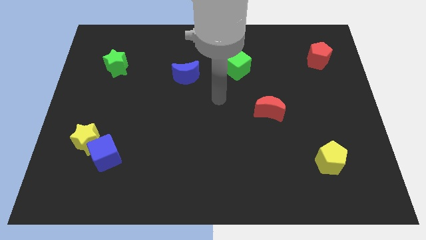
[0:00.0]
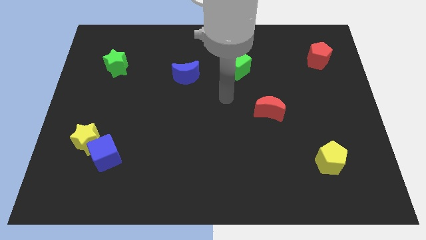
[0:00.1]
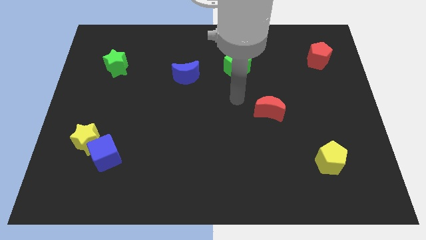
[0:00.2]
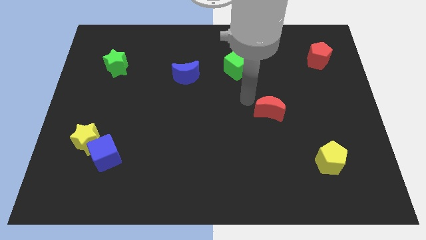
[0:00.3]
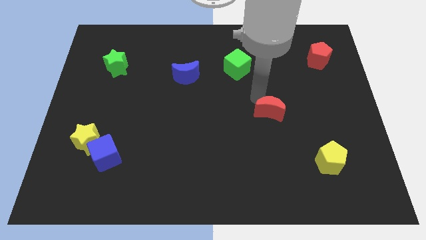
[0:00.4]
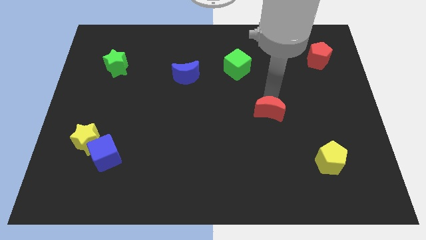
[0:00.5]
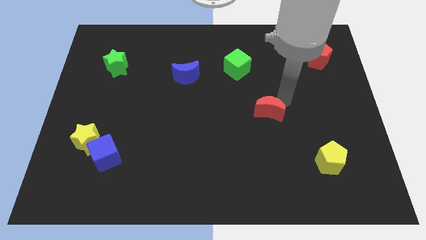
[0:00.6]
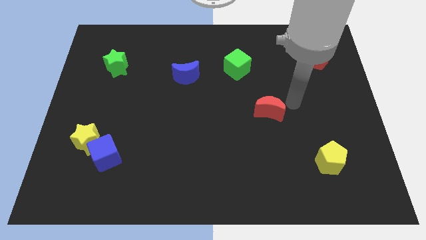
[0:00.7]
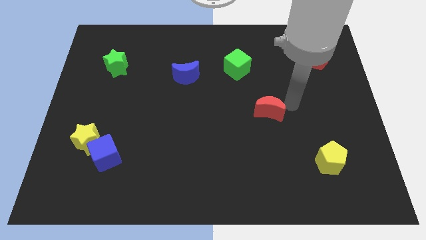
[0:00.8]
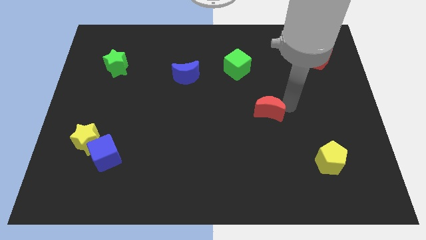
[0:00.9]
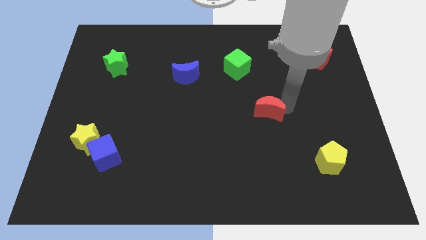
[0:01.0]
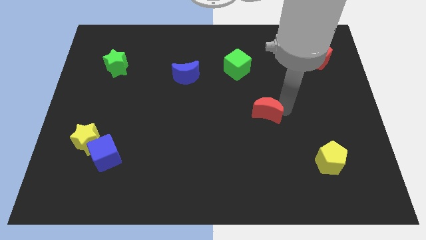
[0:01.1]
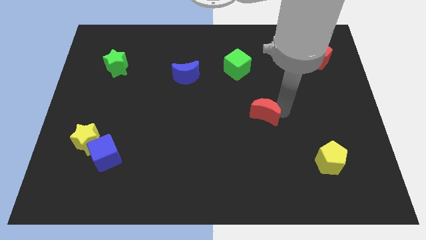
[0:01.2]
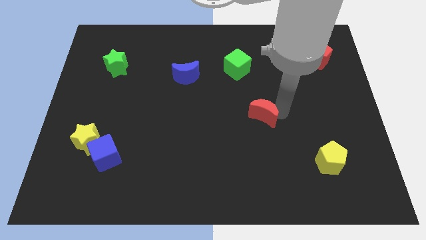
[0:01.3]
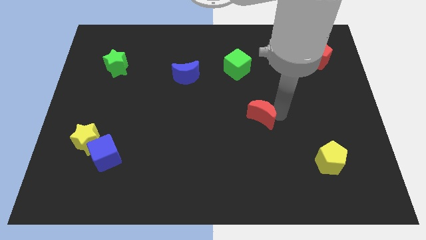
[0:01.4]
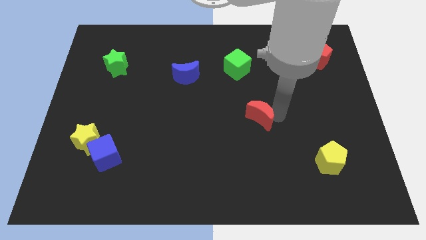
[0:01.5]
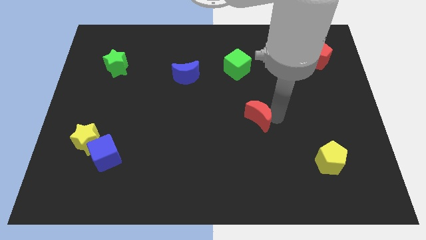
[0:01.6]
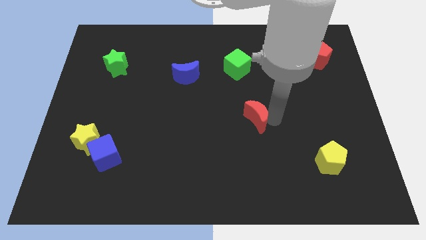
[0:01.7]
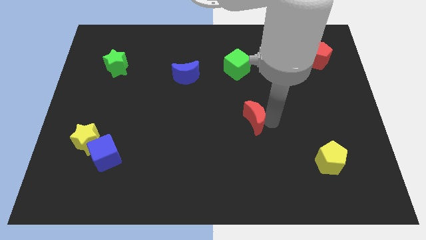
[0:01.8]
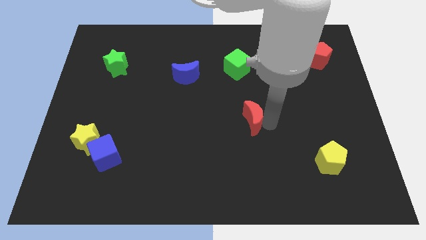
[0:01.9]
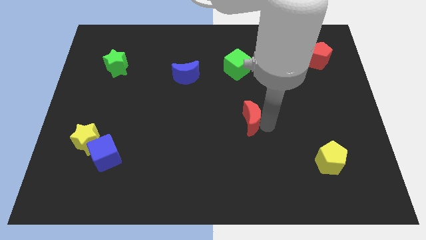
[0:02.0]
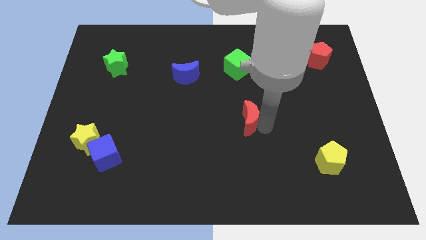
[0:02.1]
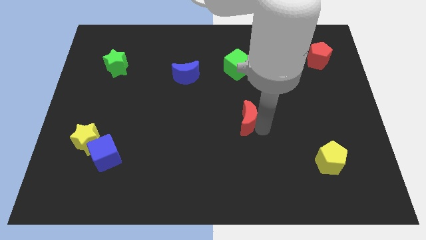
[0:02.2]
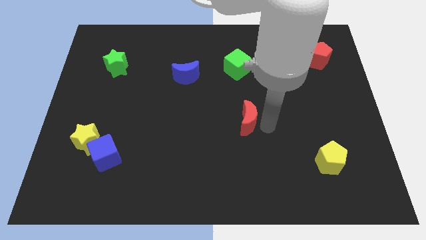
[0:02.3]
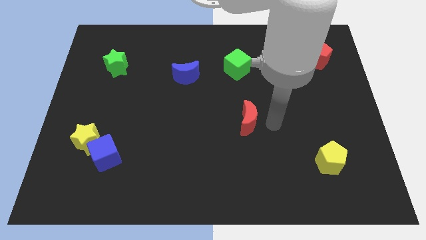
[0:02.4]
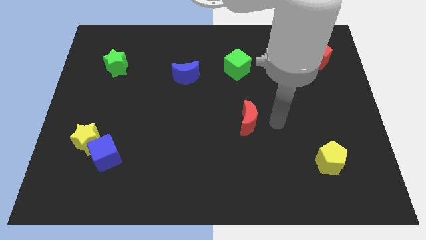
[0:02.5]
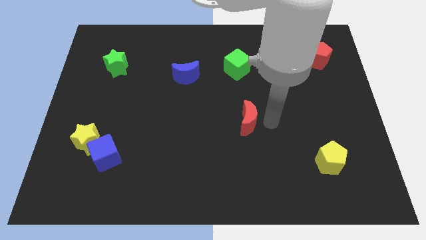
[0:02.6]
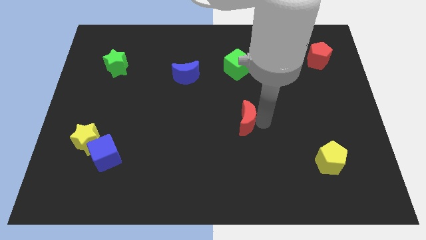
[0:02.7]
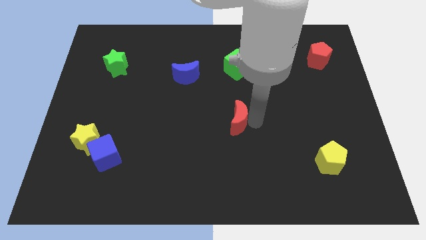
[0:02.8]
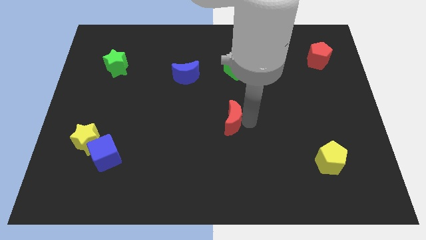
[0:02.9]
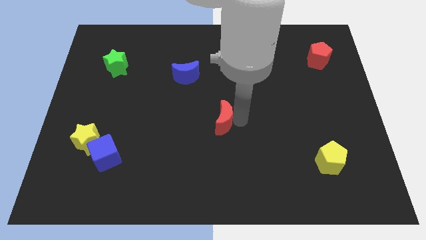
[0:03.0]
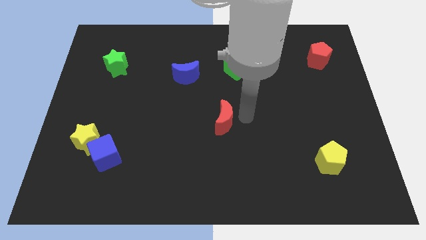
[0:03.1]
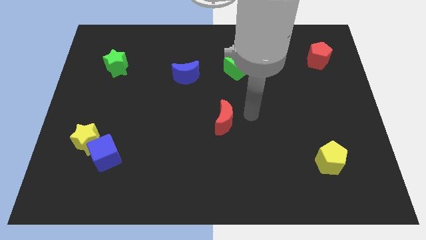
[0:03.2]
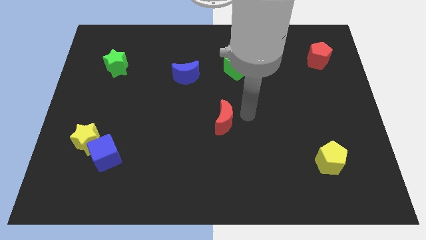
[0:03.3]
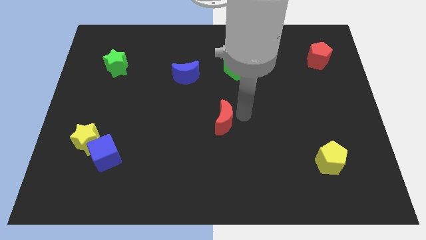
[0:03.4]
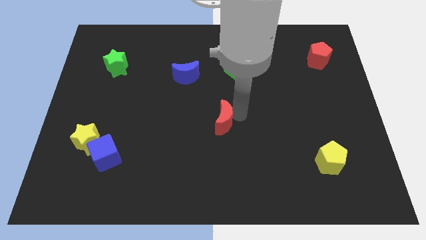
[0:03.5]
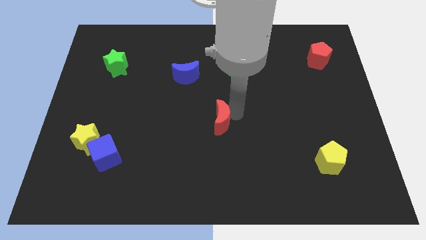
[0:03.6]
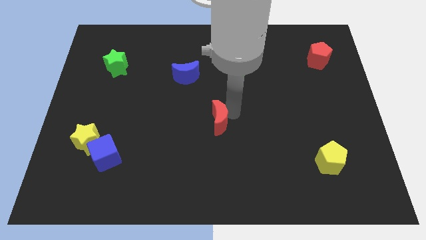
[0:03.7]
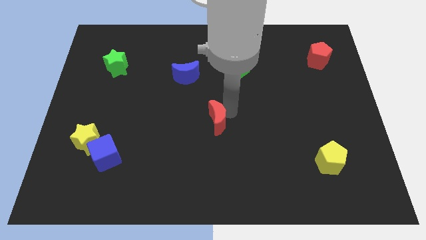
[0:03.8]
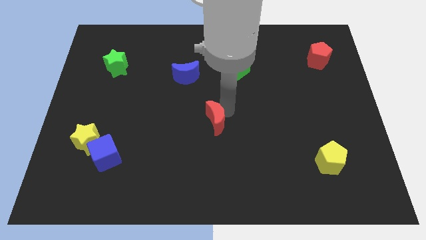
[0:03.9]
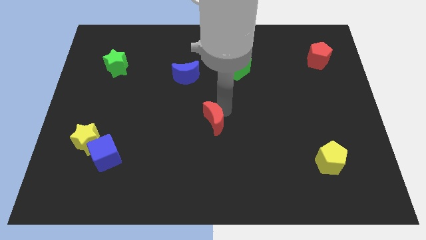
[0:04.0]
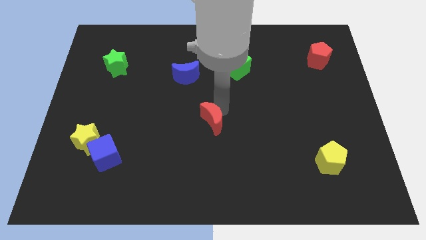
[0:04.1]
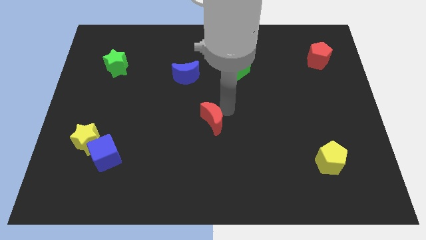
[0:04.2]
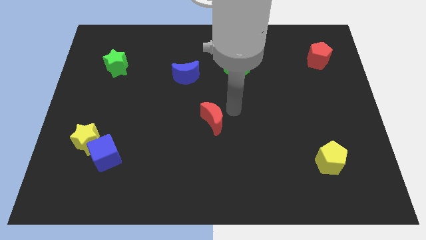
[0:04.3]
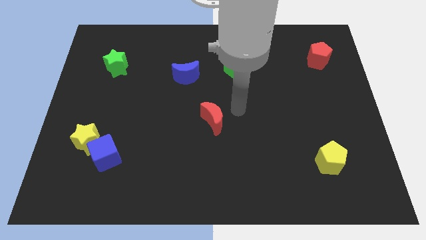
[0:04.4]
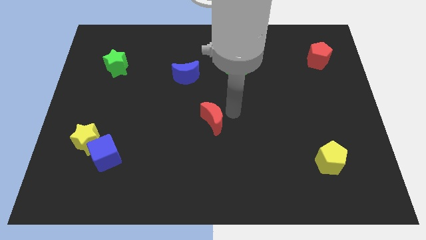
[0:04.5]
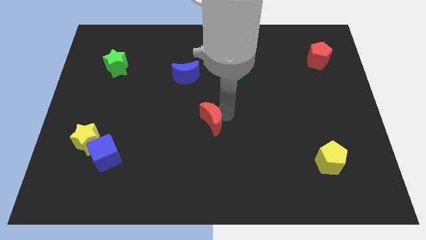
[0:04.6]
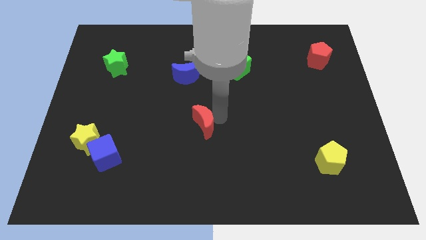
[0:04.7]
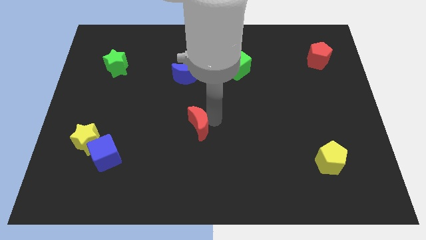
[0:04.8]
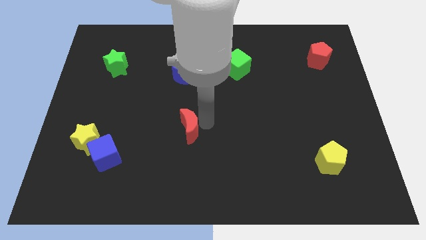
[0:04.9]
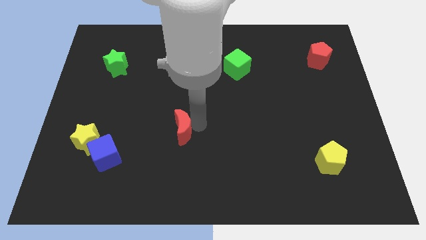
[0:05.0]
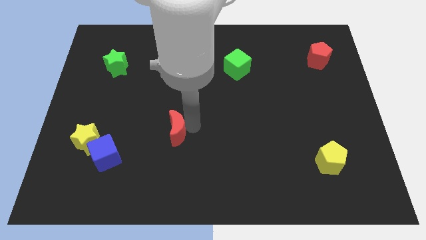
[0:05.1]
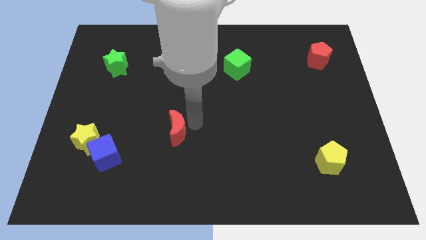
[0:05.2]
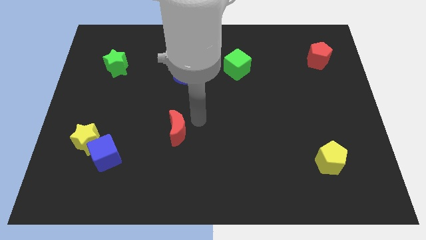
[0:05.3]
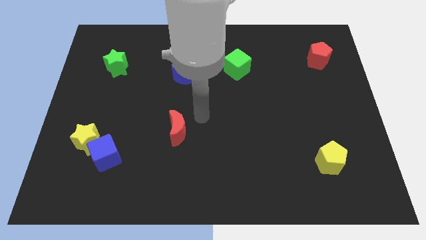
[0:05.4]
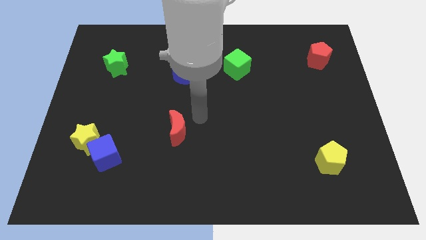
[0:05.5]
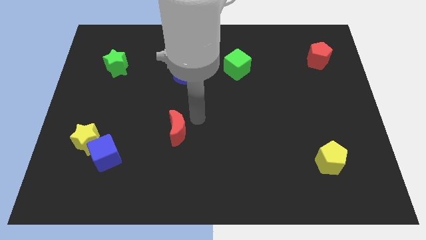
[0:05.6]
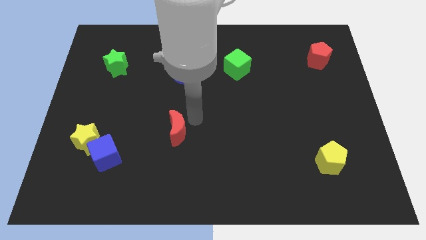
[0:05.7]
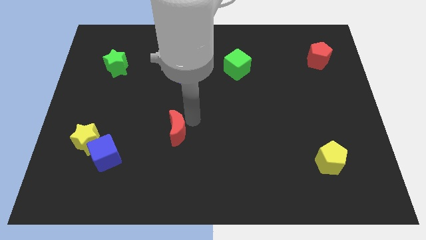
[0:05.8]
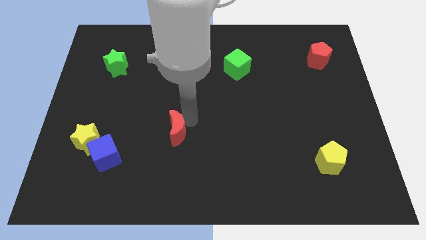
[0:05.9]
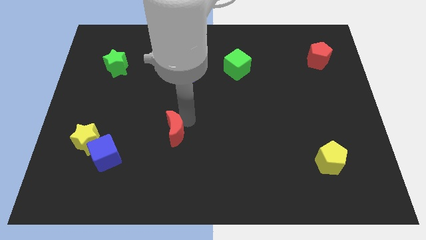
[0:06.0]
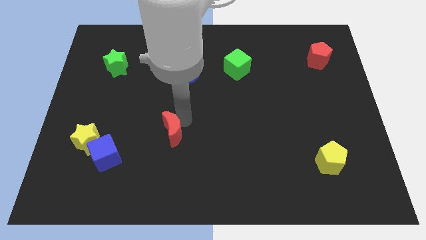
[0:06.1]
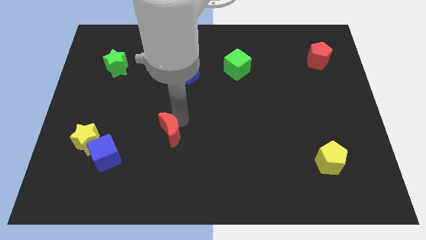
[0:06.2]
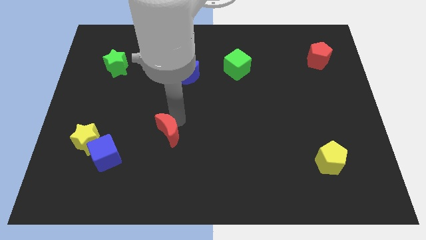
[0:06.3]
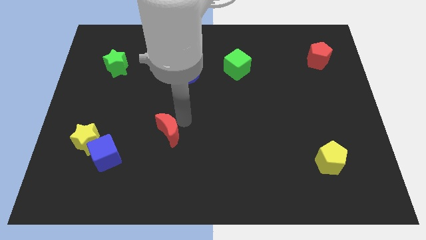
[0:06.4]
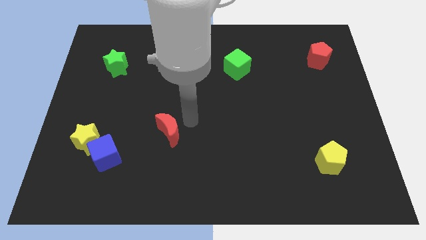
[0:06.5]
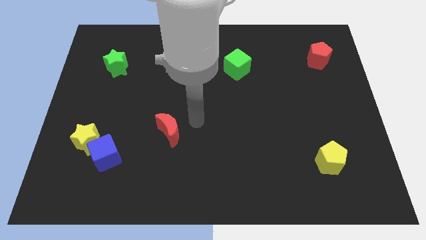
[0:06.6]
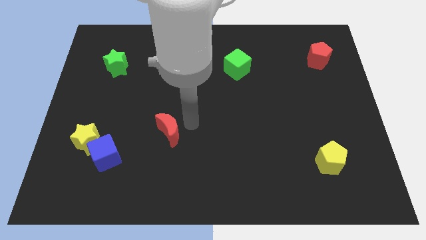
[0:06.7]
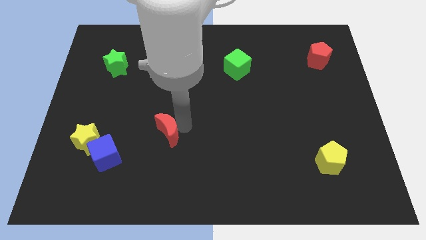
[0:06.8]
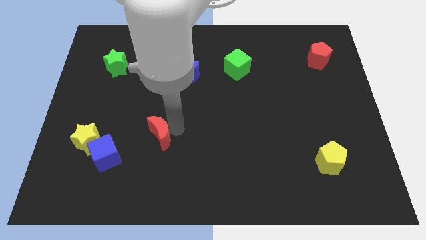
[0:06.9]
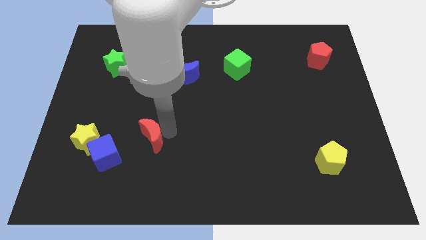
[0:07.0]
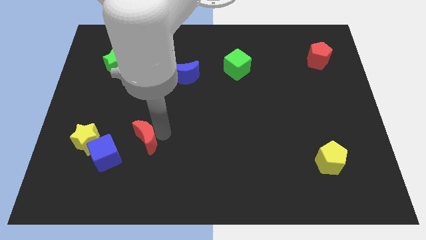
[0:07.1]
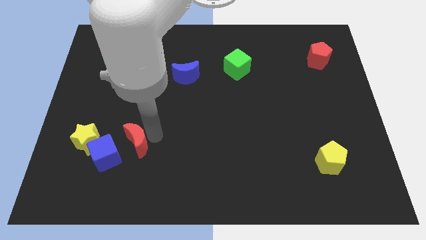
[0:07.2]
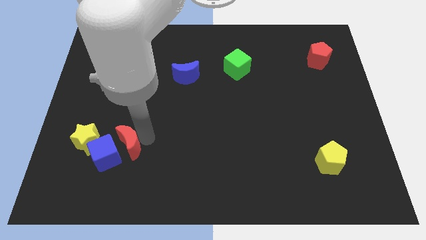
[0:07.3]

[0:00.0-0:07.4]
push the red moon towards the blue cube
